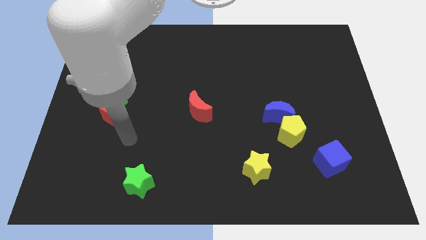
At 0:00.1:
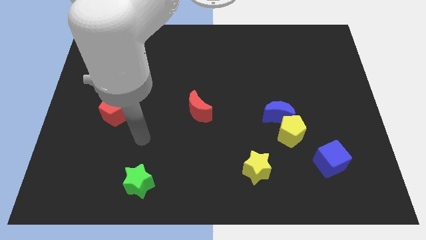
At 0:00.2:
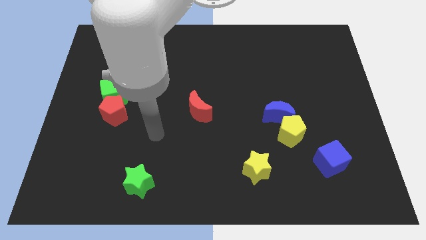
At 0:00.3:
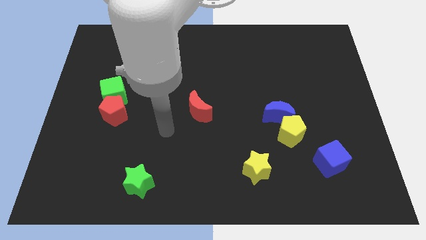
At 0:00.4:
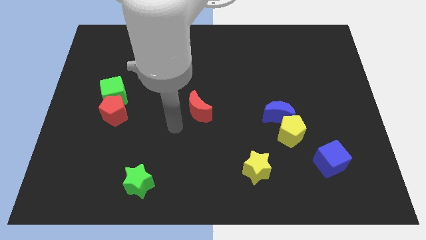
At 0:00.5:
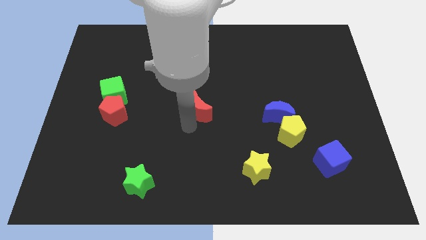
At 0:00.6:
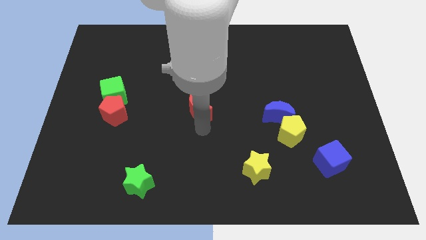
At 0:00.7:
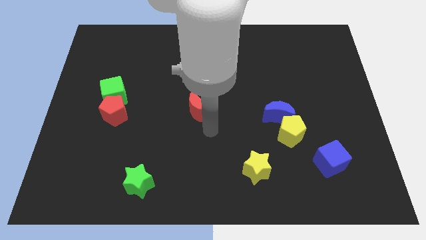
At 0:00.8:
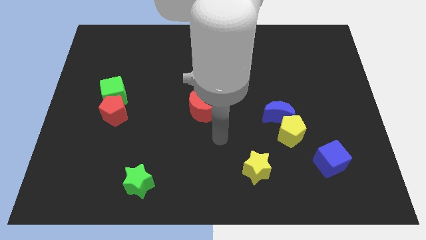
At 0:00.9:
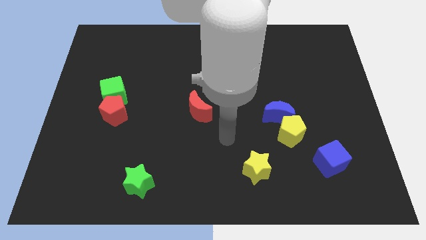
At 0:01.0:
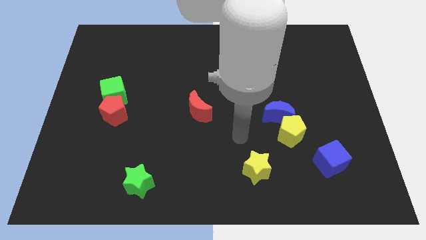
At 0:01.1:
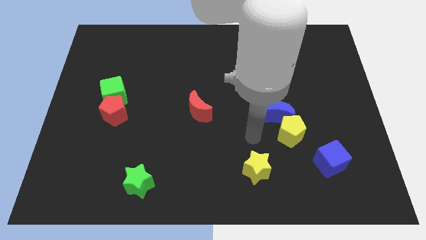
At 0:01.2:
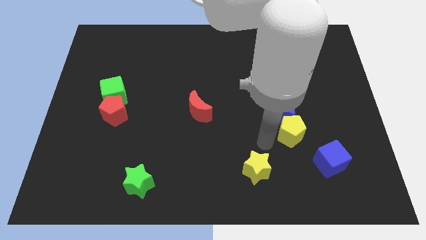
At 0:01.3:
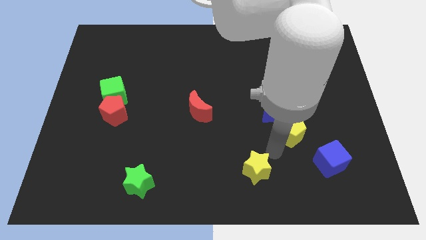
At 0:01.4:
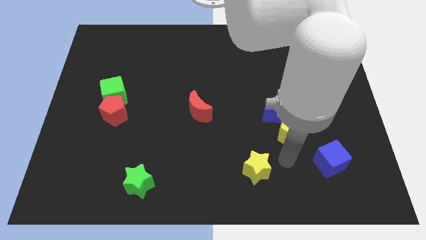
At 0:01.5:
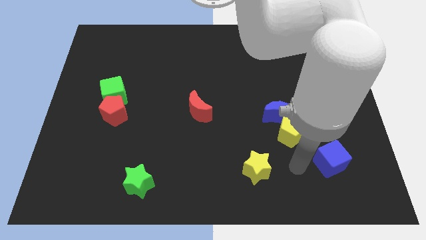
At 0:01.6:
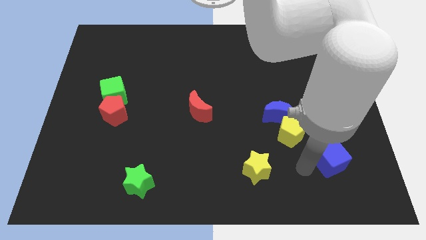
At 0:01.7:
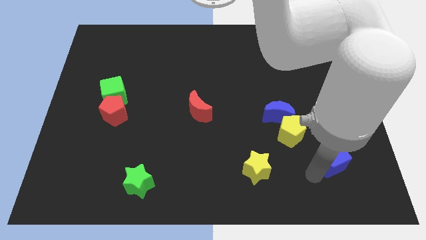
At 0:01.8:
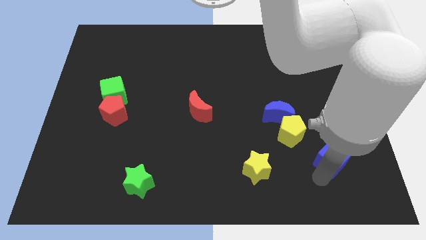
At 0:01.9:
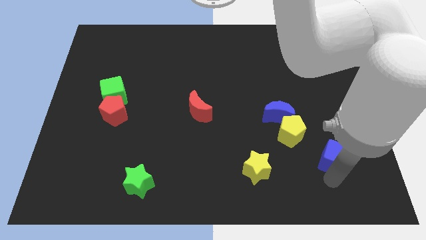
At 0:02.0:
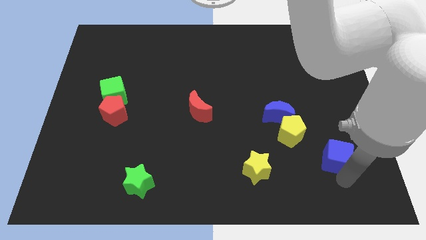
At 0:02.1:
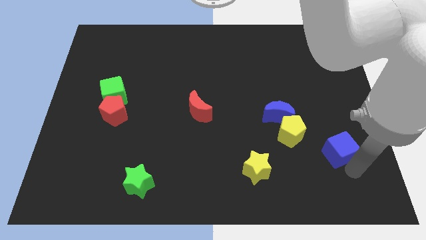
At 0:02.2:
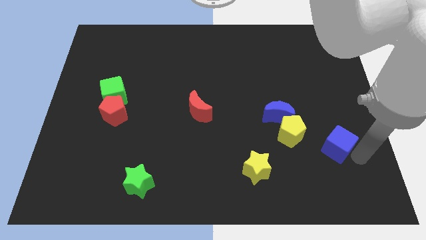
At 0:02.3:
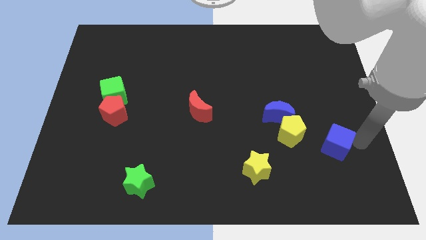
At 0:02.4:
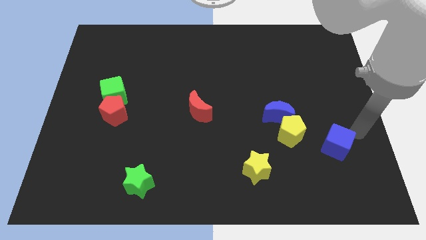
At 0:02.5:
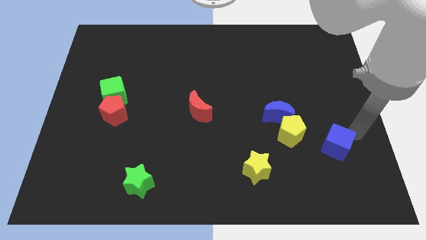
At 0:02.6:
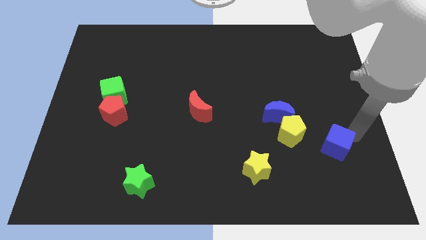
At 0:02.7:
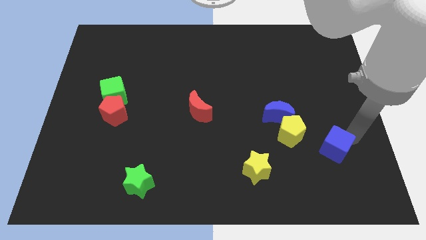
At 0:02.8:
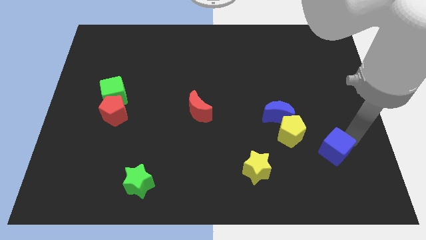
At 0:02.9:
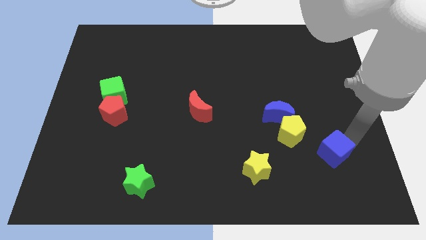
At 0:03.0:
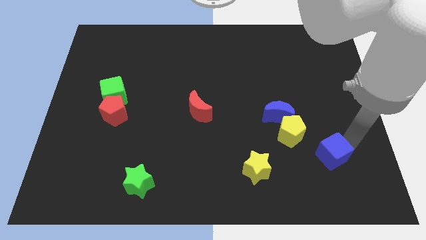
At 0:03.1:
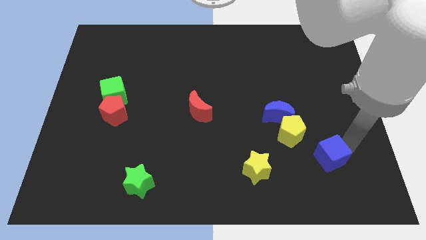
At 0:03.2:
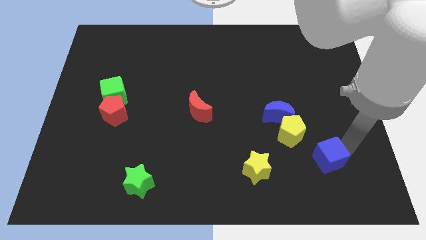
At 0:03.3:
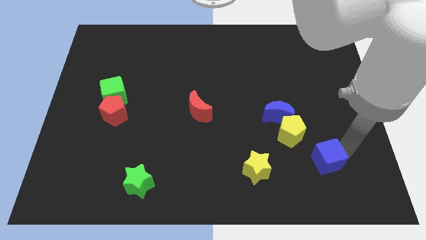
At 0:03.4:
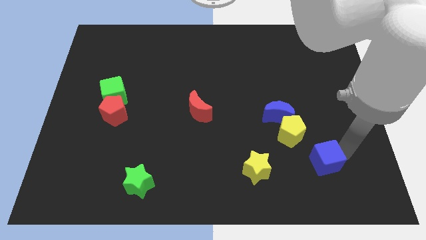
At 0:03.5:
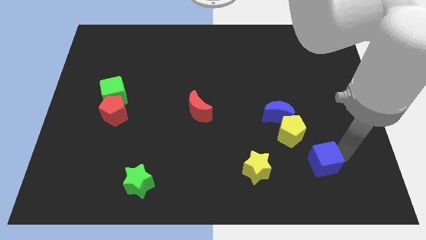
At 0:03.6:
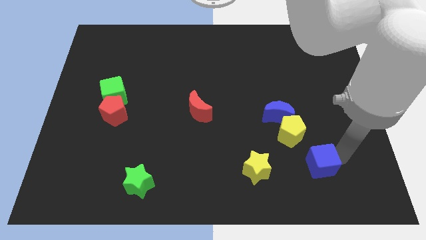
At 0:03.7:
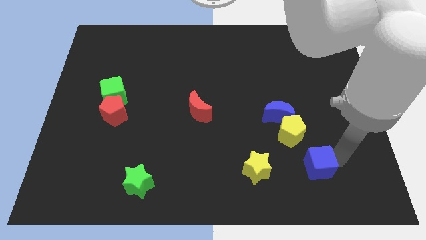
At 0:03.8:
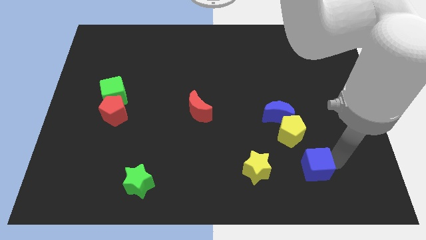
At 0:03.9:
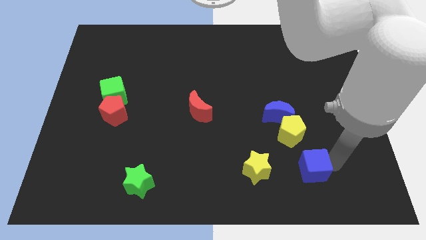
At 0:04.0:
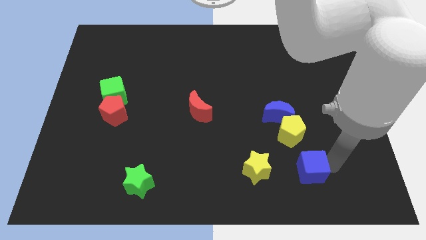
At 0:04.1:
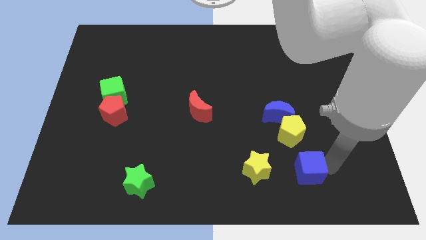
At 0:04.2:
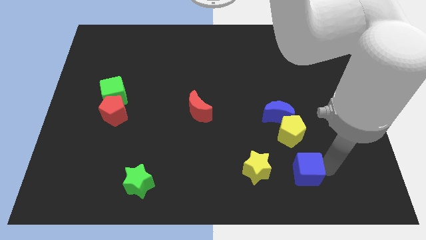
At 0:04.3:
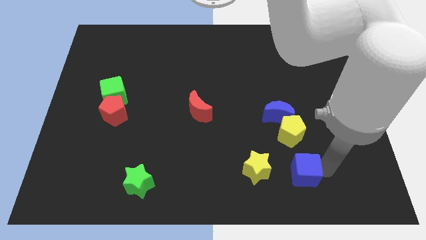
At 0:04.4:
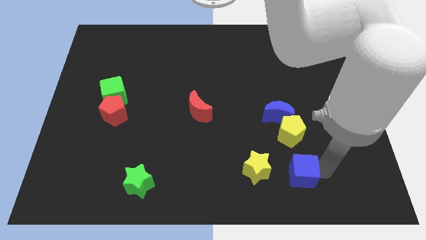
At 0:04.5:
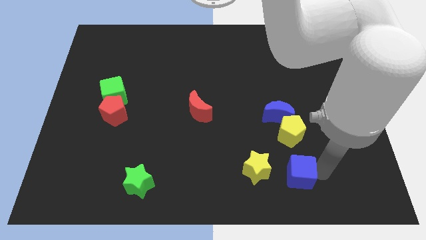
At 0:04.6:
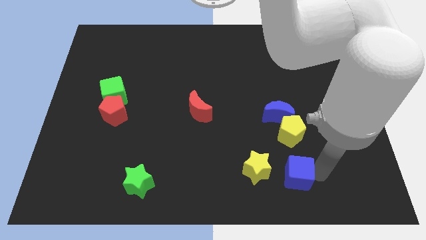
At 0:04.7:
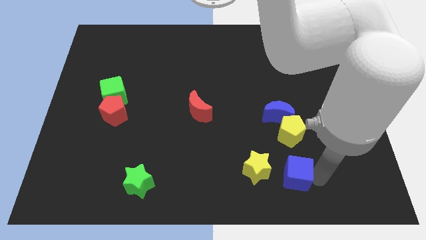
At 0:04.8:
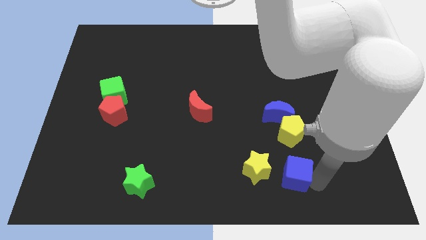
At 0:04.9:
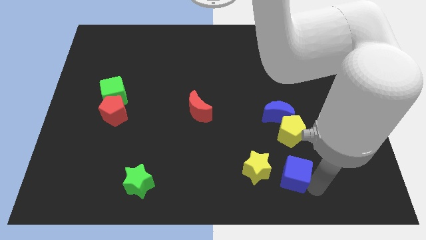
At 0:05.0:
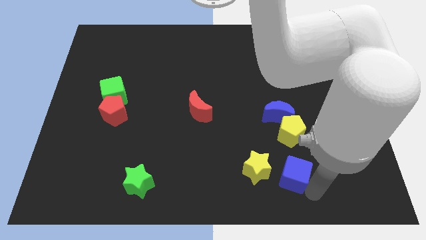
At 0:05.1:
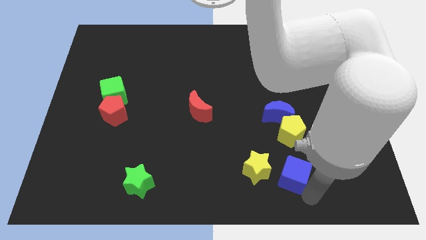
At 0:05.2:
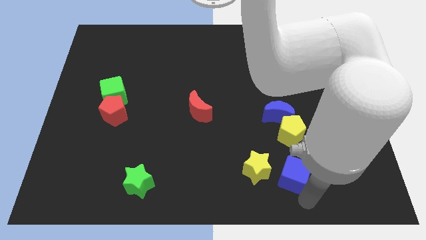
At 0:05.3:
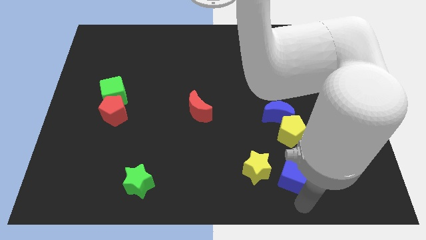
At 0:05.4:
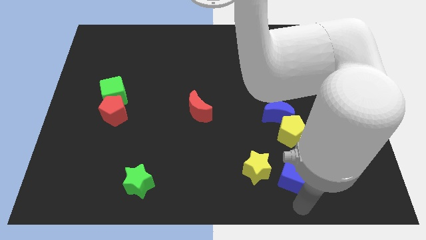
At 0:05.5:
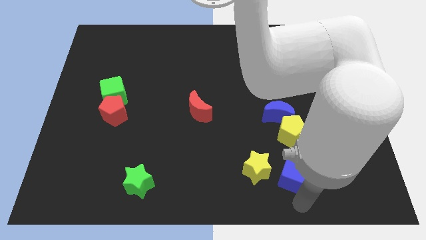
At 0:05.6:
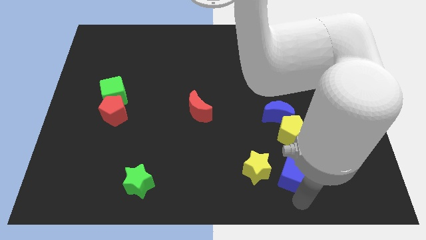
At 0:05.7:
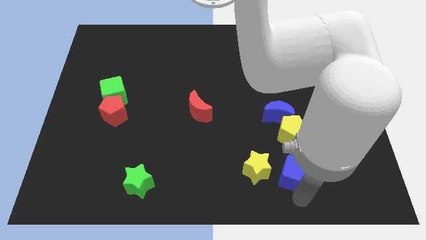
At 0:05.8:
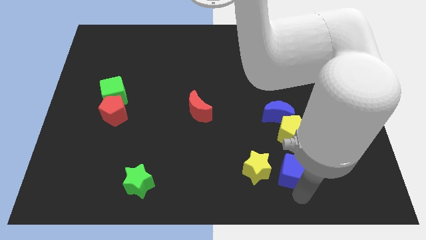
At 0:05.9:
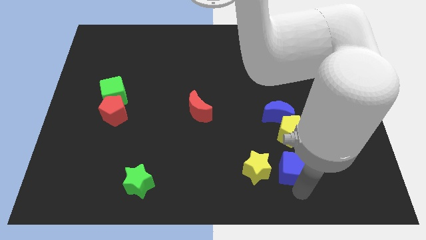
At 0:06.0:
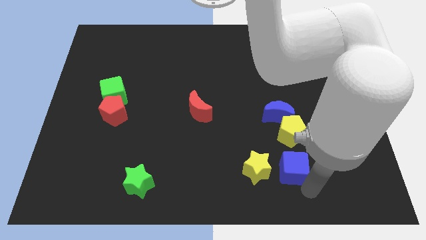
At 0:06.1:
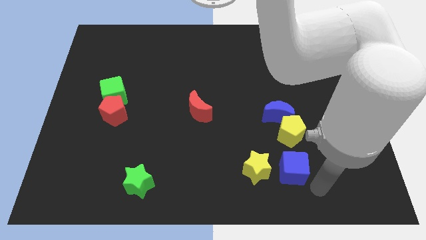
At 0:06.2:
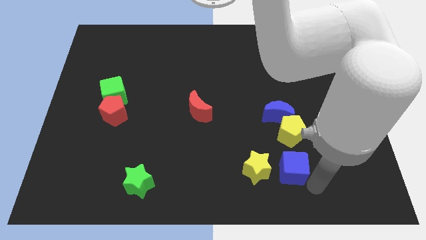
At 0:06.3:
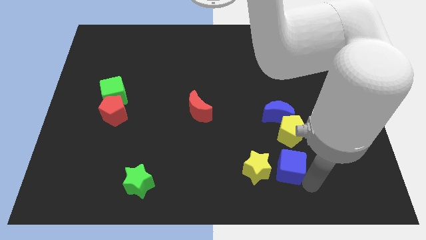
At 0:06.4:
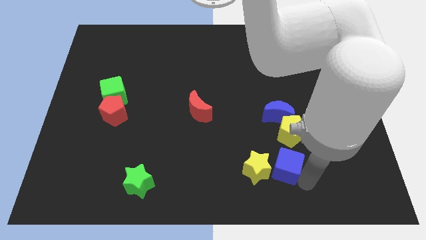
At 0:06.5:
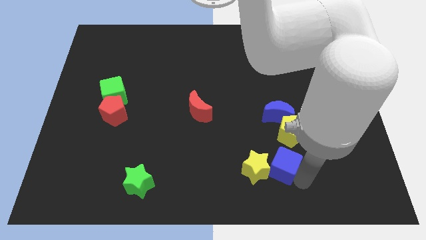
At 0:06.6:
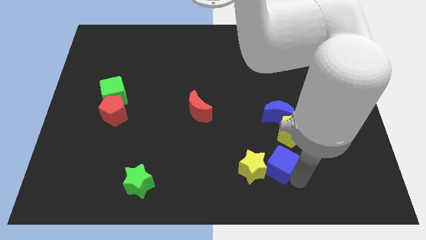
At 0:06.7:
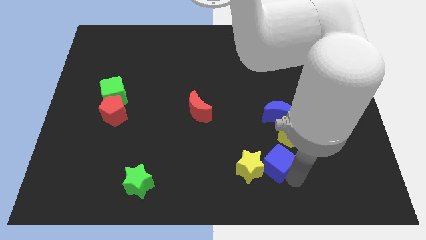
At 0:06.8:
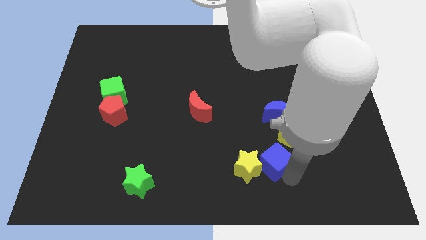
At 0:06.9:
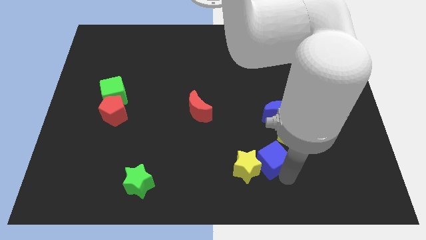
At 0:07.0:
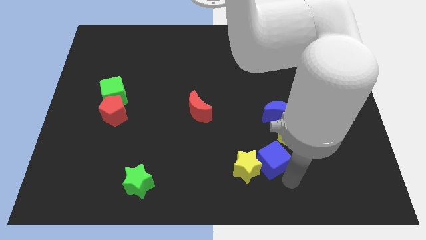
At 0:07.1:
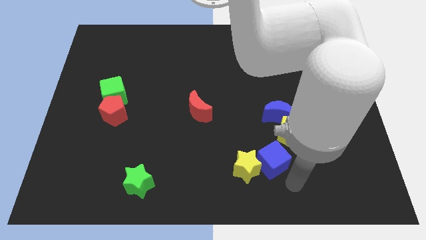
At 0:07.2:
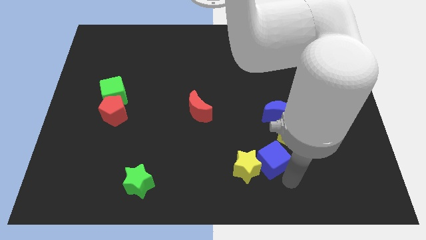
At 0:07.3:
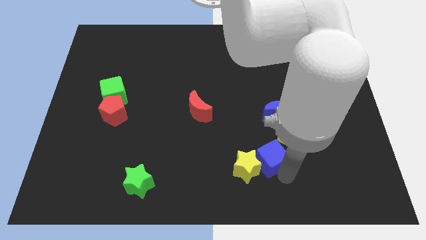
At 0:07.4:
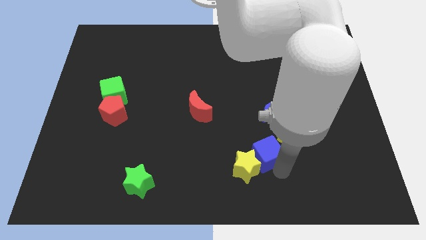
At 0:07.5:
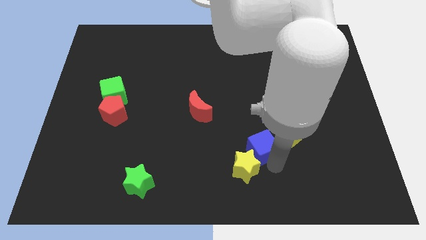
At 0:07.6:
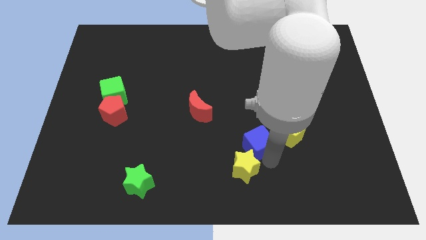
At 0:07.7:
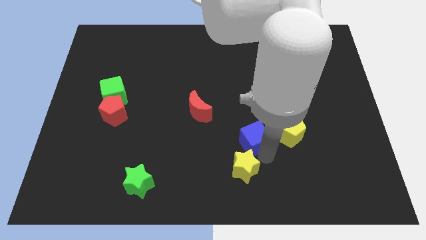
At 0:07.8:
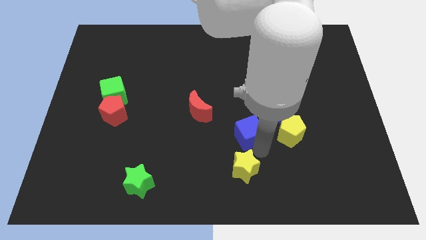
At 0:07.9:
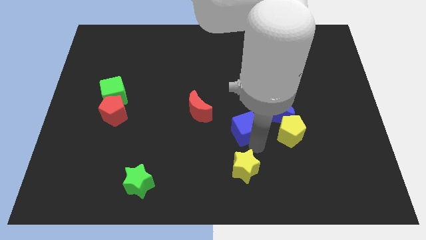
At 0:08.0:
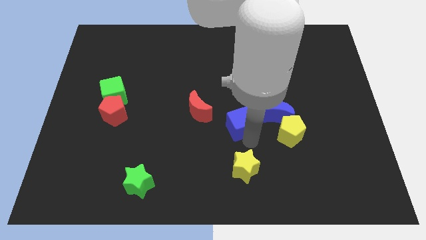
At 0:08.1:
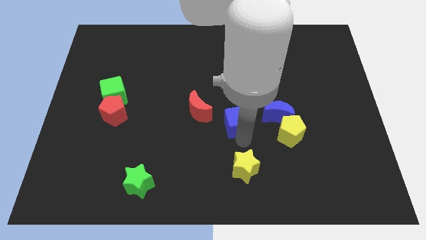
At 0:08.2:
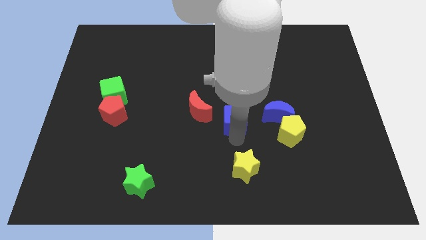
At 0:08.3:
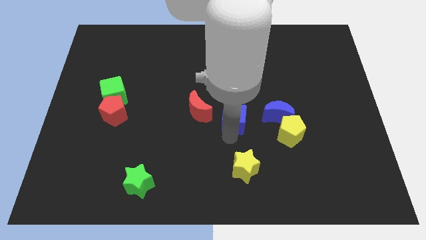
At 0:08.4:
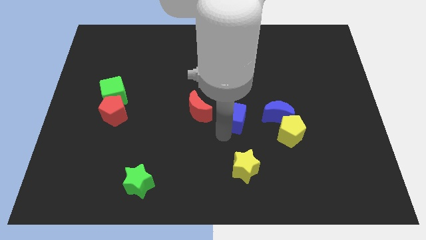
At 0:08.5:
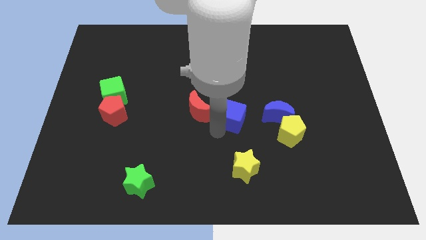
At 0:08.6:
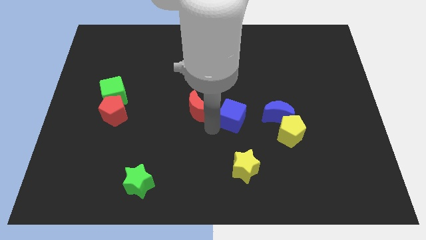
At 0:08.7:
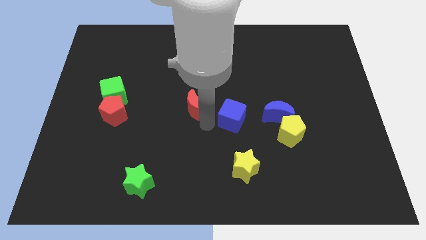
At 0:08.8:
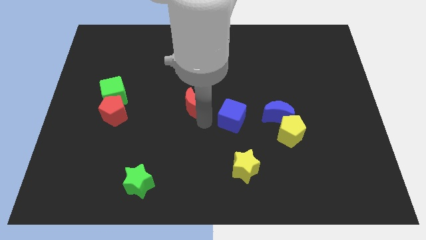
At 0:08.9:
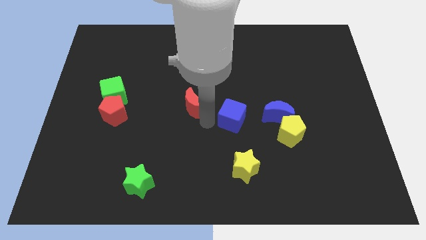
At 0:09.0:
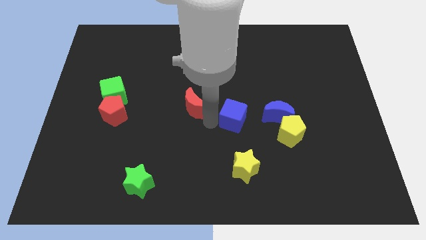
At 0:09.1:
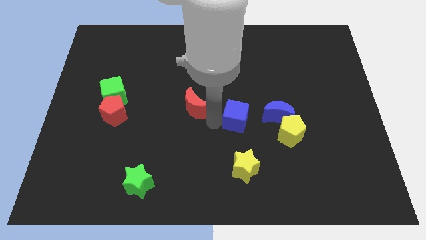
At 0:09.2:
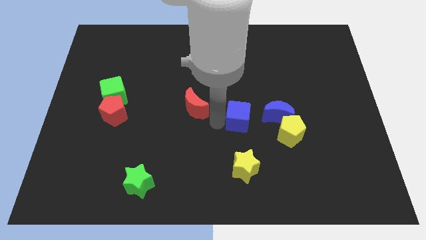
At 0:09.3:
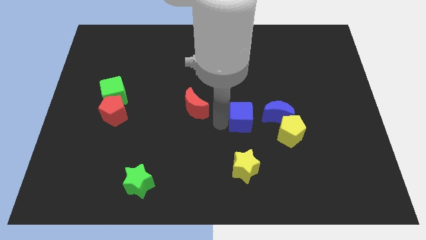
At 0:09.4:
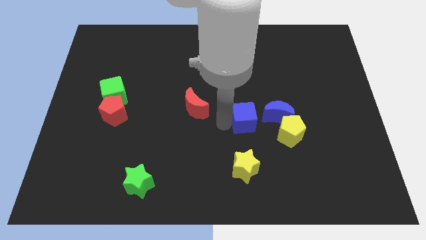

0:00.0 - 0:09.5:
push the blue cube diagonally up and to the left of the yellow pentagon
